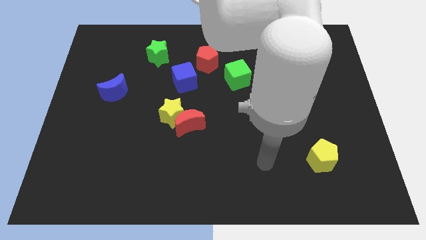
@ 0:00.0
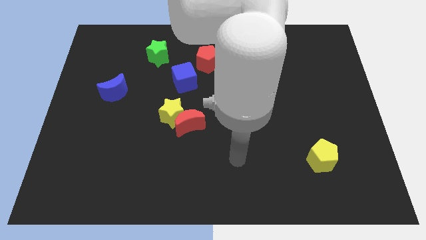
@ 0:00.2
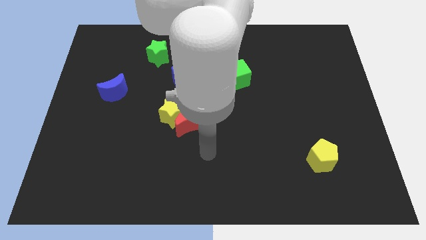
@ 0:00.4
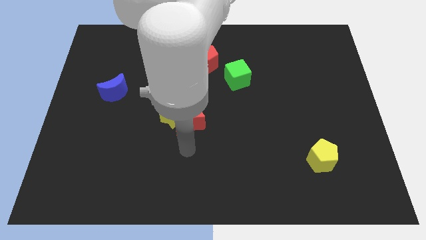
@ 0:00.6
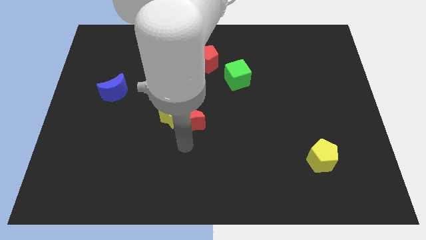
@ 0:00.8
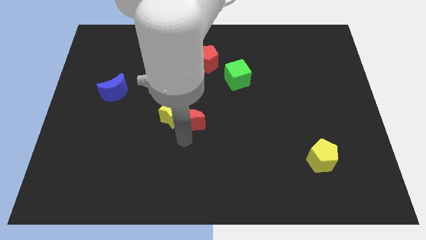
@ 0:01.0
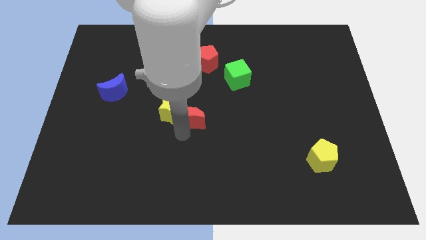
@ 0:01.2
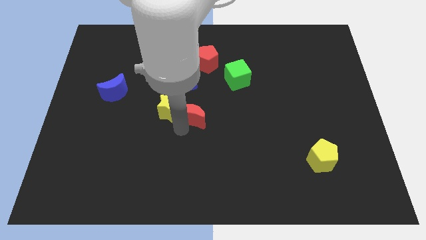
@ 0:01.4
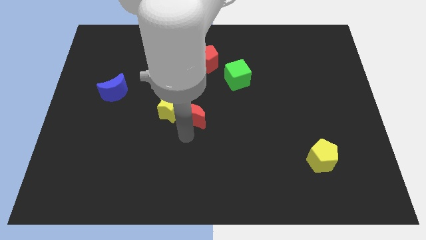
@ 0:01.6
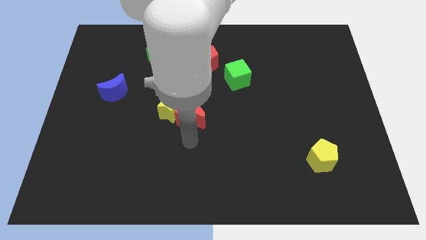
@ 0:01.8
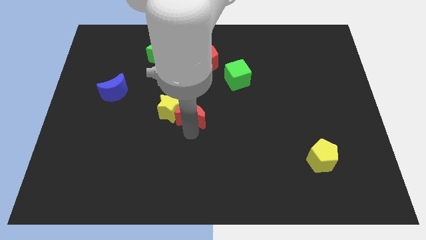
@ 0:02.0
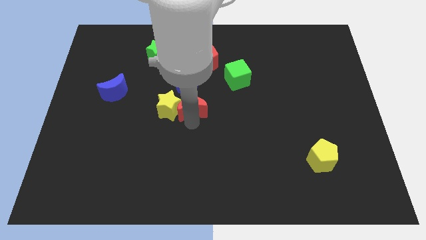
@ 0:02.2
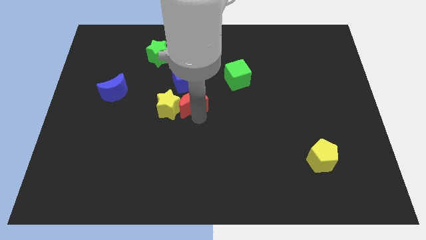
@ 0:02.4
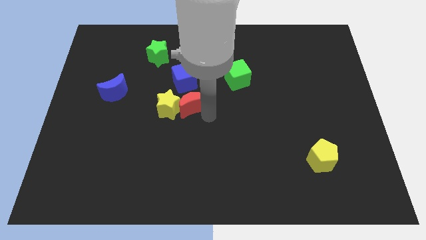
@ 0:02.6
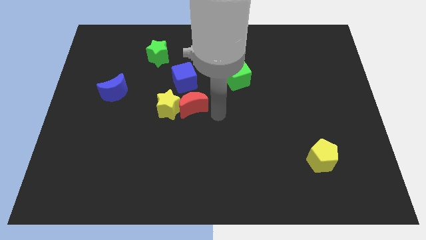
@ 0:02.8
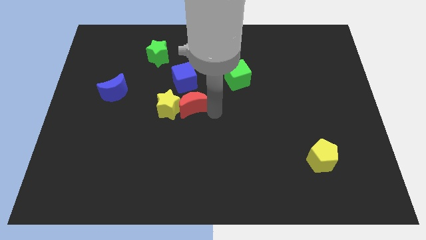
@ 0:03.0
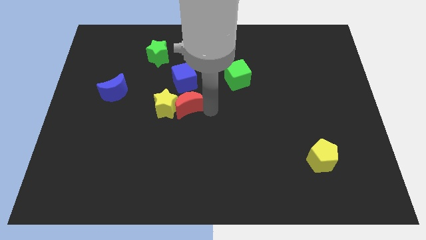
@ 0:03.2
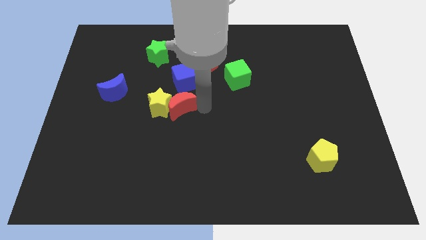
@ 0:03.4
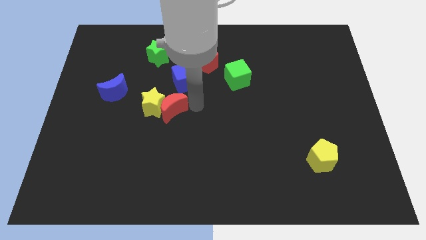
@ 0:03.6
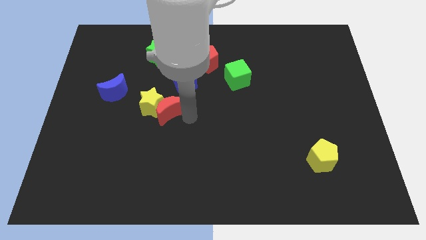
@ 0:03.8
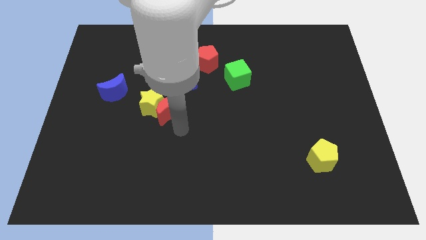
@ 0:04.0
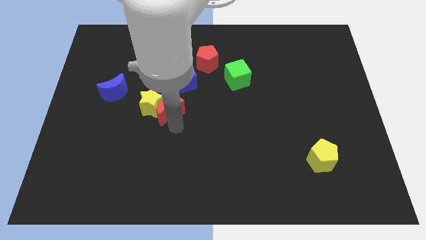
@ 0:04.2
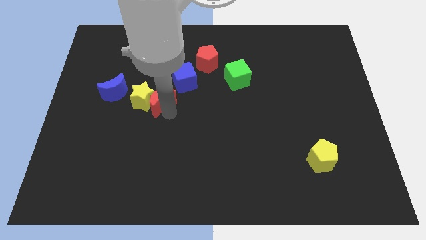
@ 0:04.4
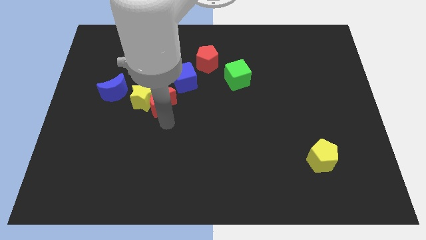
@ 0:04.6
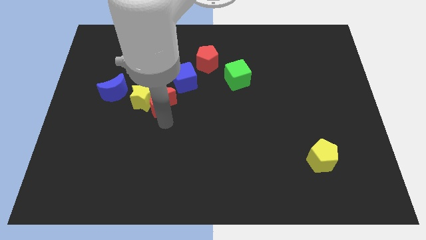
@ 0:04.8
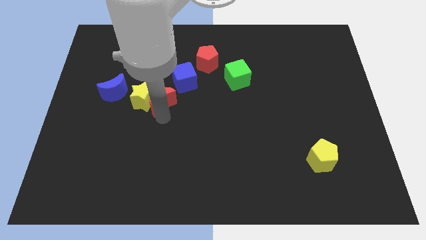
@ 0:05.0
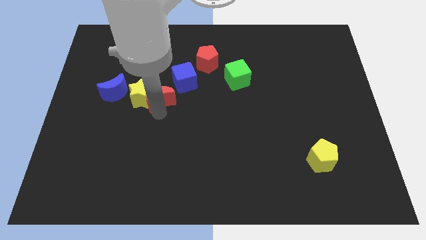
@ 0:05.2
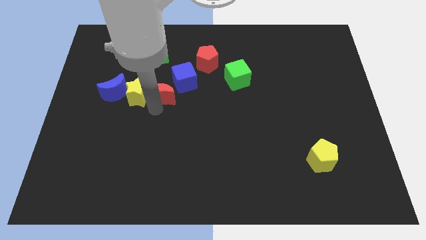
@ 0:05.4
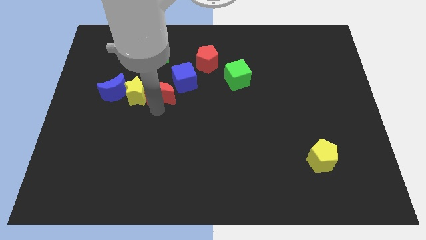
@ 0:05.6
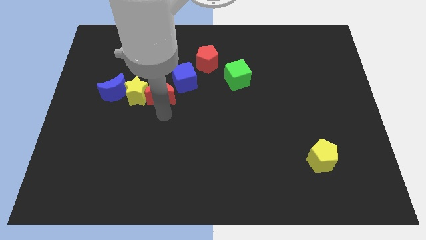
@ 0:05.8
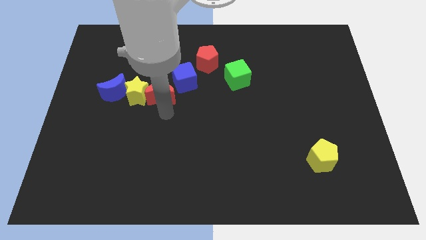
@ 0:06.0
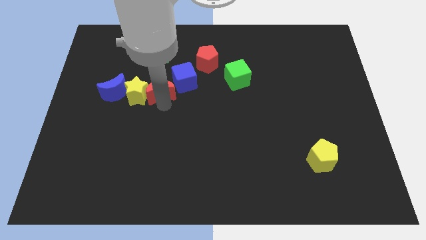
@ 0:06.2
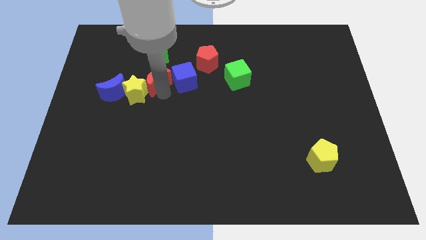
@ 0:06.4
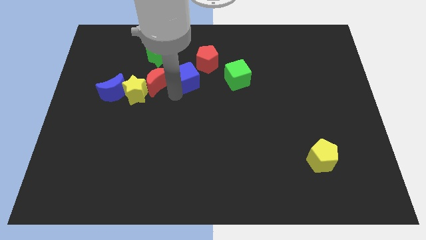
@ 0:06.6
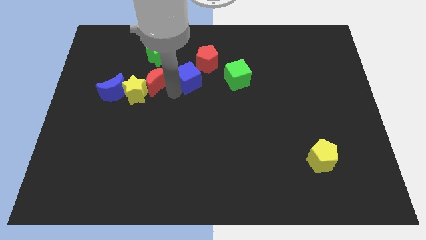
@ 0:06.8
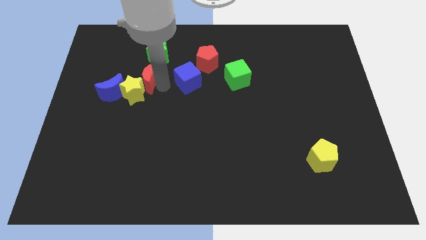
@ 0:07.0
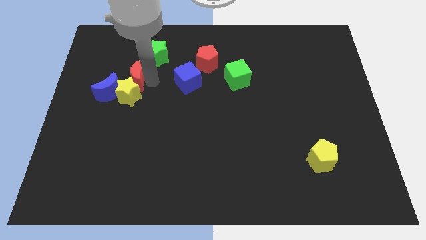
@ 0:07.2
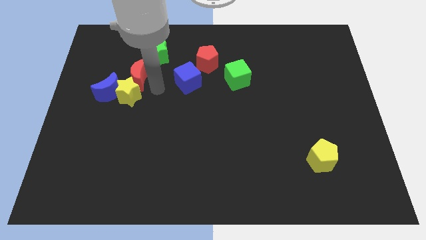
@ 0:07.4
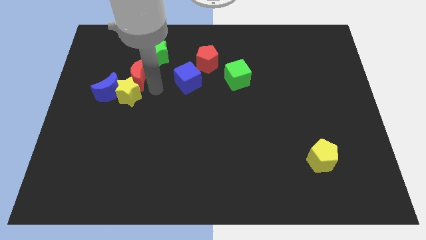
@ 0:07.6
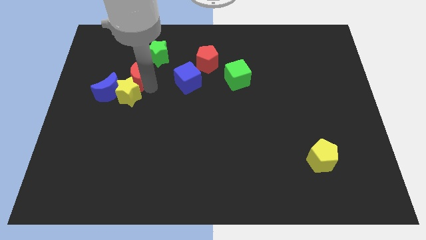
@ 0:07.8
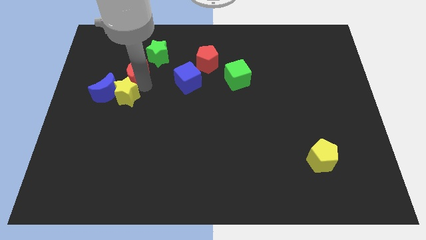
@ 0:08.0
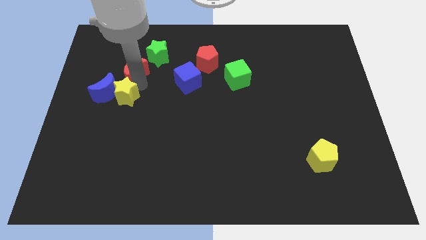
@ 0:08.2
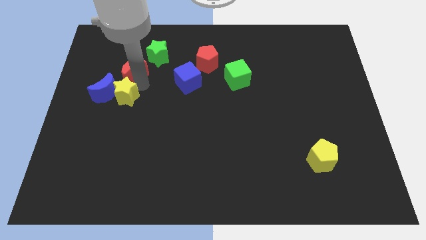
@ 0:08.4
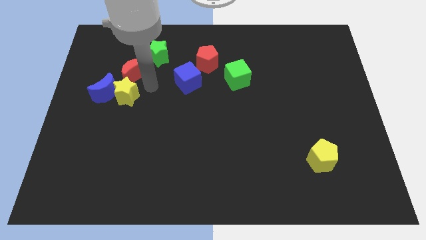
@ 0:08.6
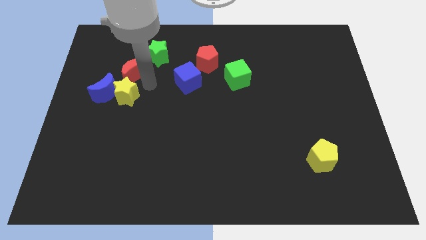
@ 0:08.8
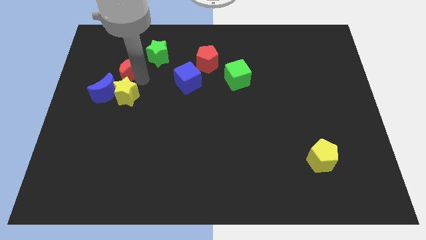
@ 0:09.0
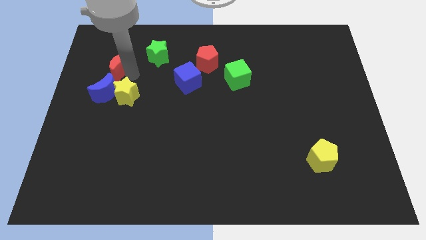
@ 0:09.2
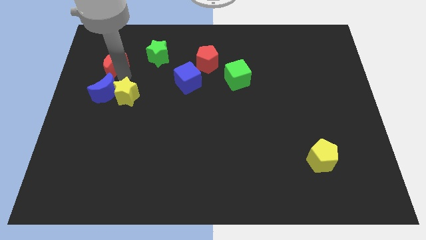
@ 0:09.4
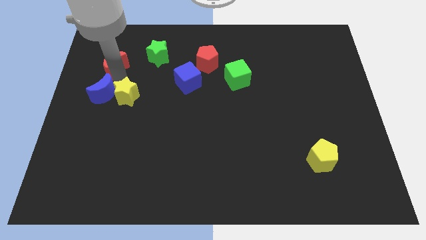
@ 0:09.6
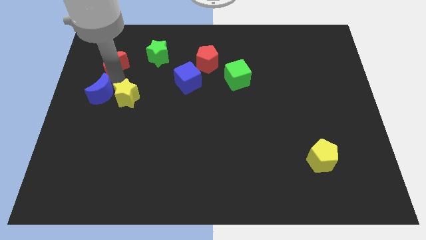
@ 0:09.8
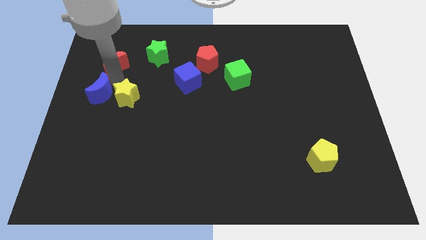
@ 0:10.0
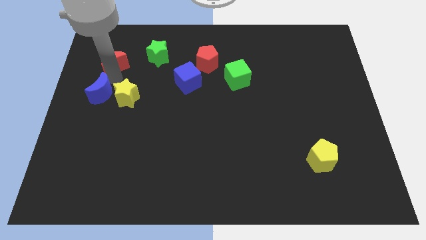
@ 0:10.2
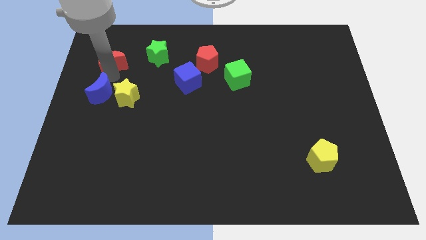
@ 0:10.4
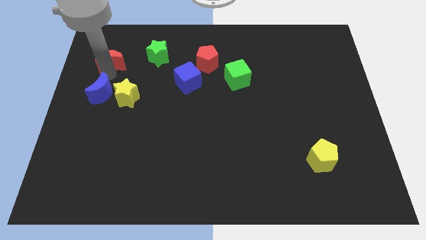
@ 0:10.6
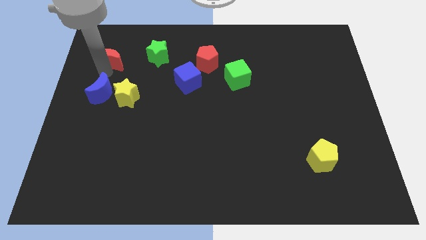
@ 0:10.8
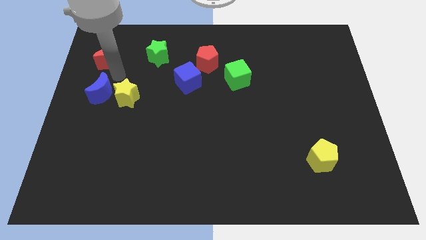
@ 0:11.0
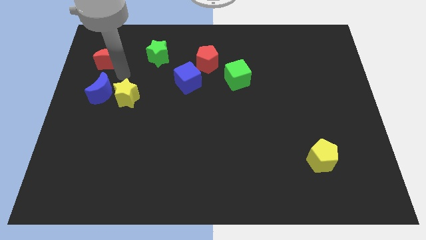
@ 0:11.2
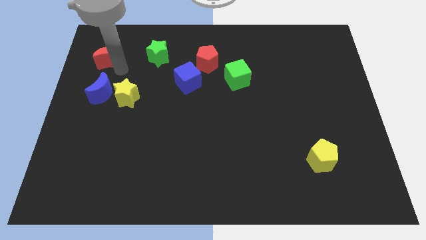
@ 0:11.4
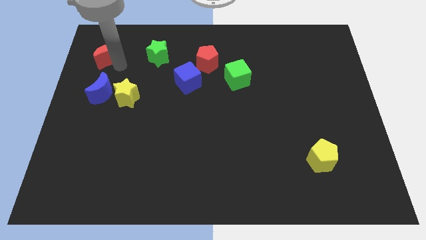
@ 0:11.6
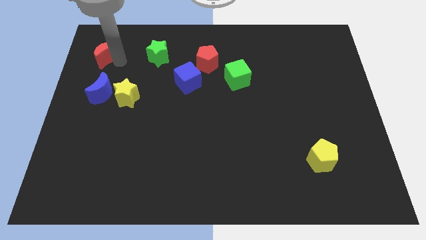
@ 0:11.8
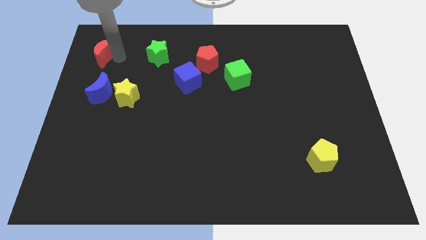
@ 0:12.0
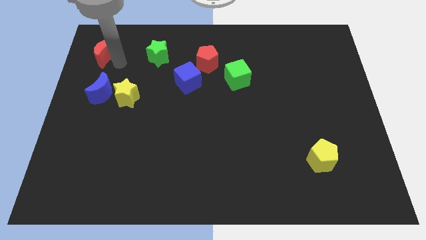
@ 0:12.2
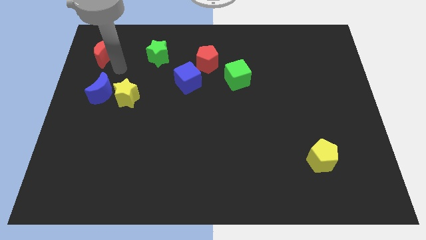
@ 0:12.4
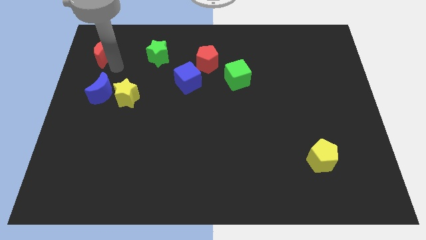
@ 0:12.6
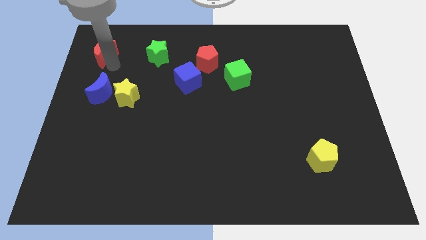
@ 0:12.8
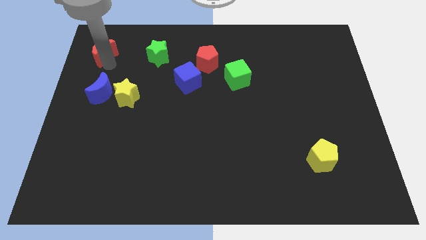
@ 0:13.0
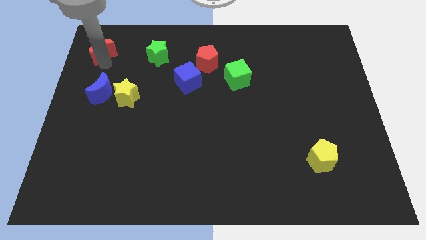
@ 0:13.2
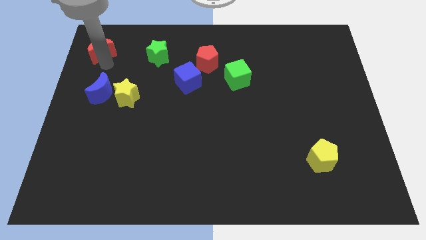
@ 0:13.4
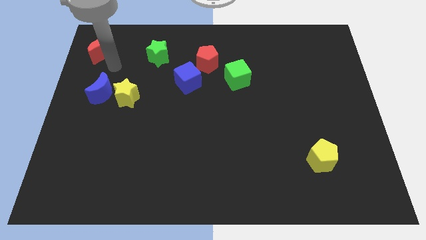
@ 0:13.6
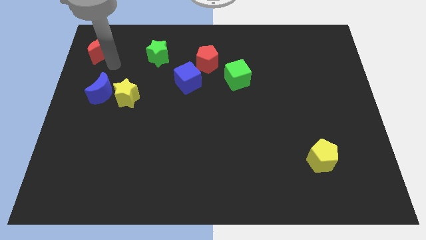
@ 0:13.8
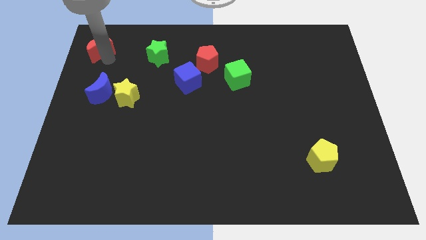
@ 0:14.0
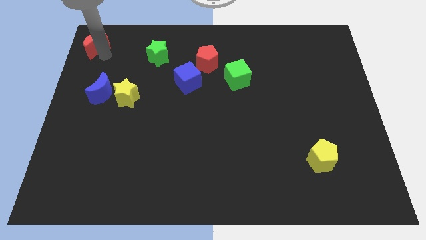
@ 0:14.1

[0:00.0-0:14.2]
push the red moon to the top left of the board
